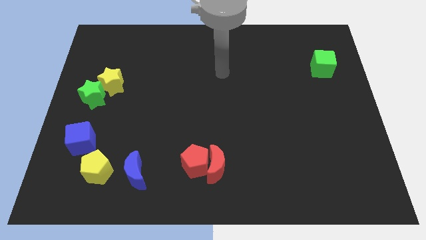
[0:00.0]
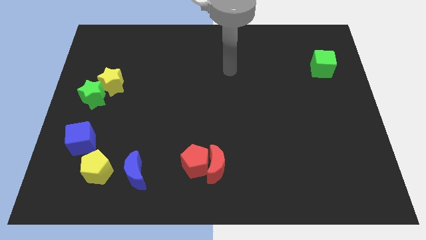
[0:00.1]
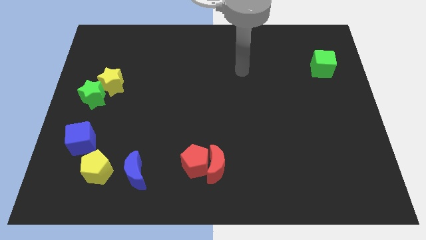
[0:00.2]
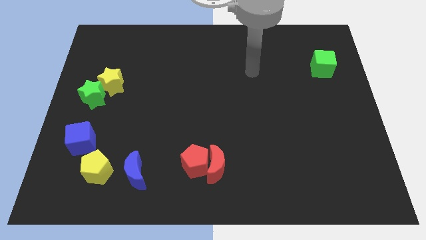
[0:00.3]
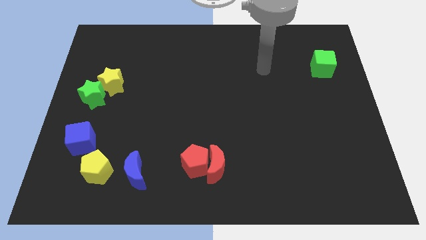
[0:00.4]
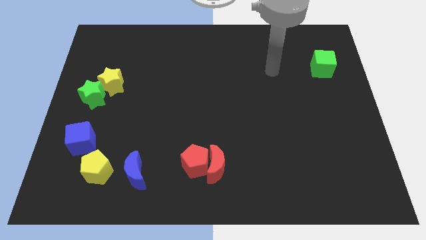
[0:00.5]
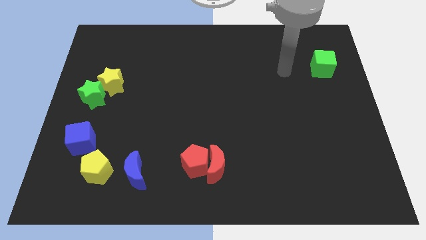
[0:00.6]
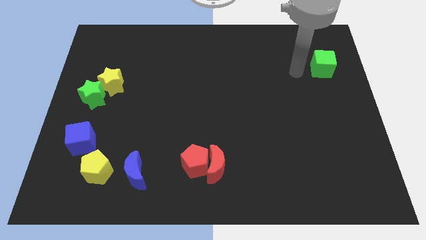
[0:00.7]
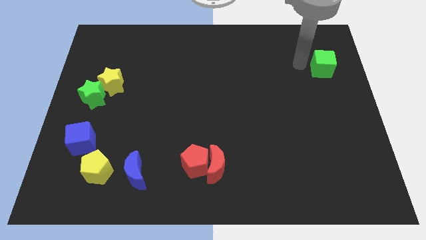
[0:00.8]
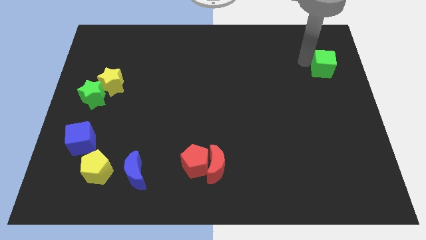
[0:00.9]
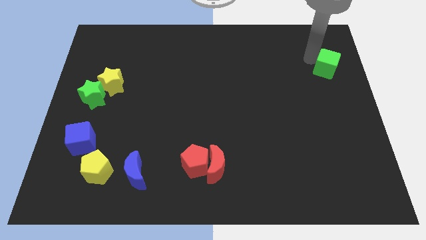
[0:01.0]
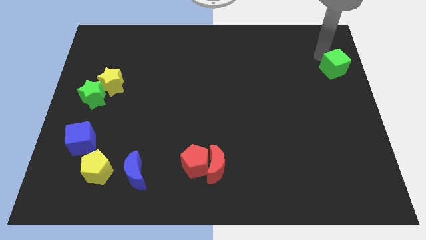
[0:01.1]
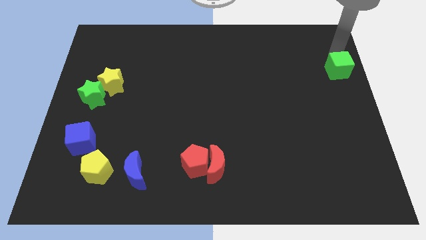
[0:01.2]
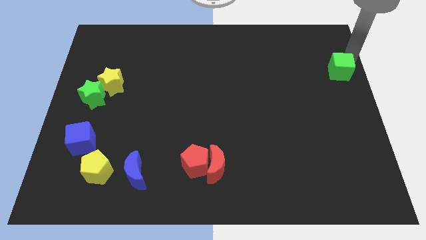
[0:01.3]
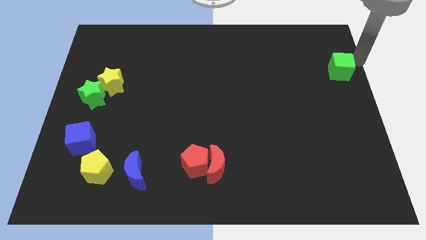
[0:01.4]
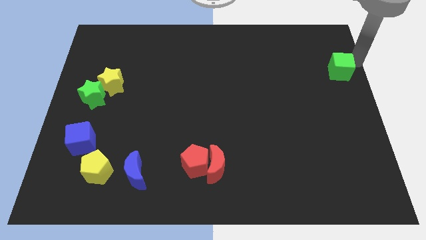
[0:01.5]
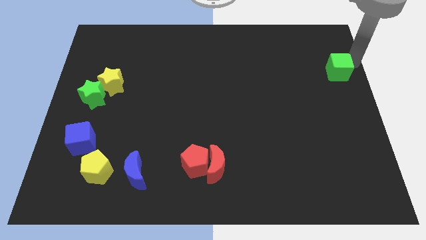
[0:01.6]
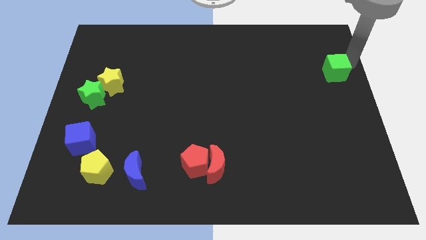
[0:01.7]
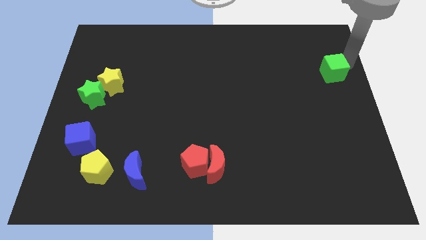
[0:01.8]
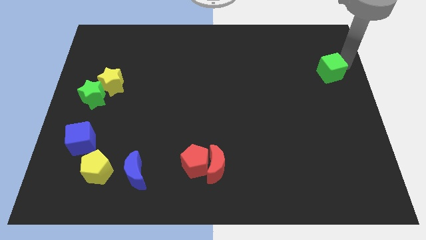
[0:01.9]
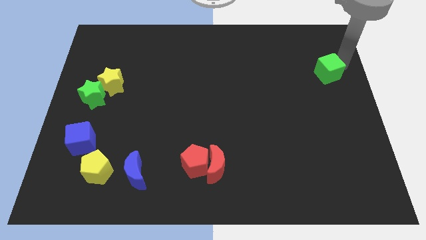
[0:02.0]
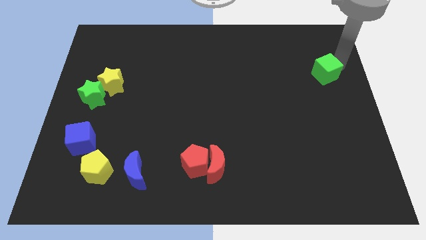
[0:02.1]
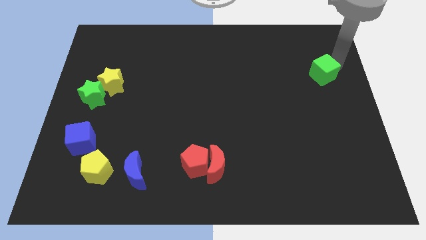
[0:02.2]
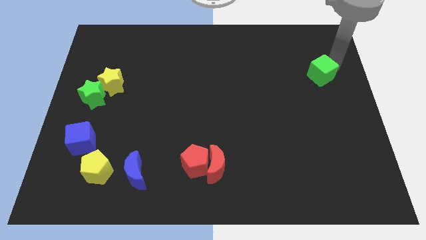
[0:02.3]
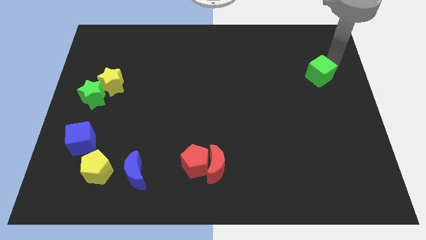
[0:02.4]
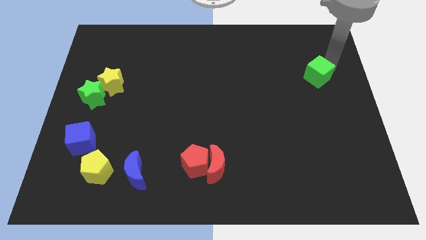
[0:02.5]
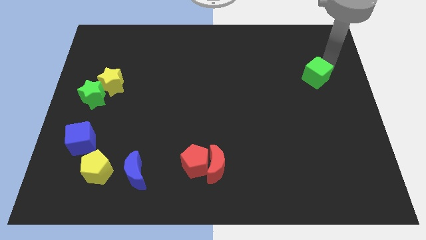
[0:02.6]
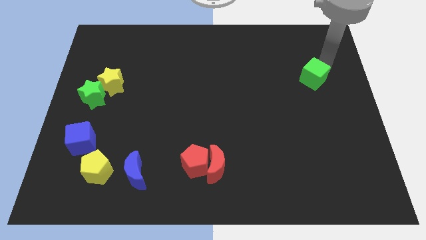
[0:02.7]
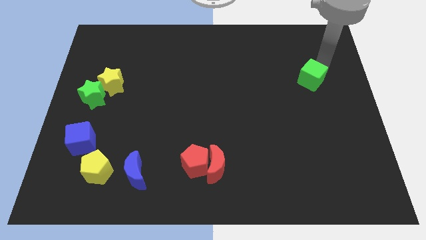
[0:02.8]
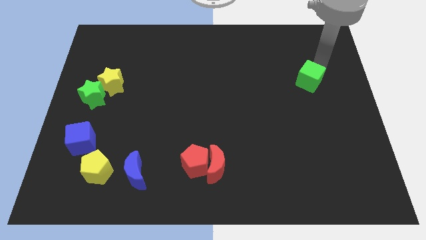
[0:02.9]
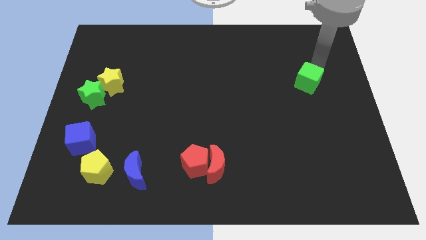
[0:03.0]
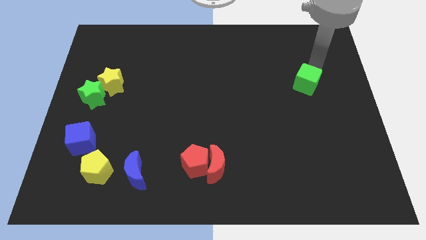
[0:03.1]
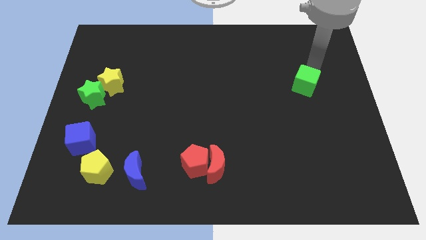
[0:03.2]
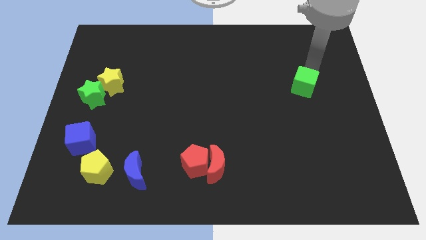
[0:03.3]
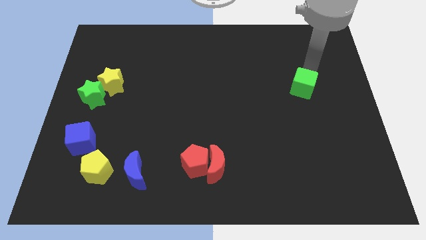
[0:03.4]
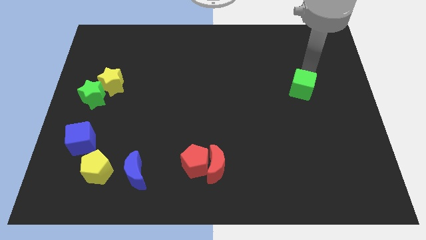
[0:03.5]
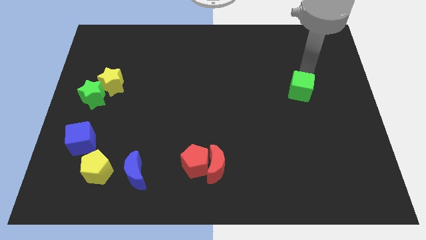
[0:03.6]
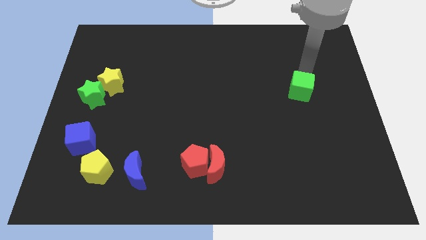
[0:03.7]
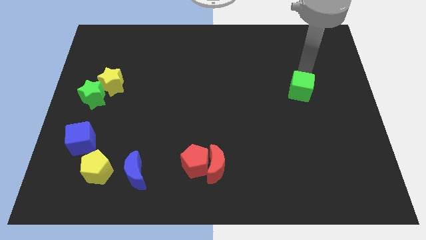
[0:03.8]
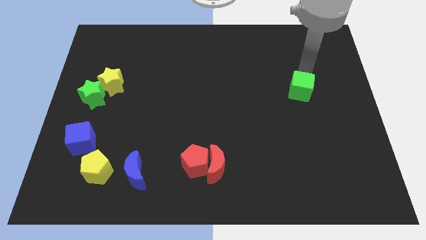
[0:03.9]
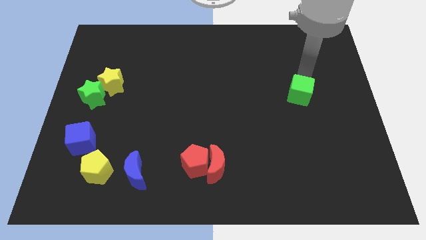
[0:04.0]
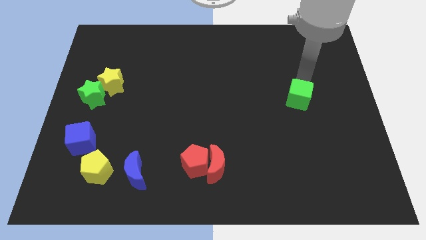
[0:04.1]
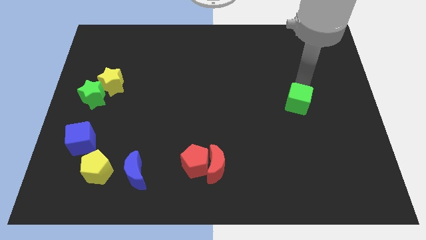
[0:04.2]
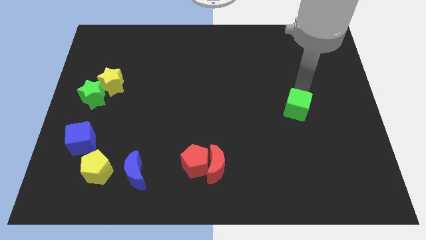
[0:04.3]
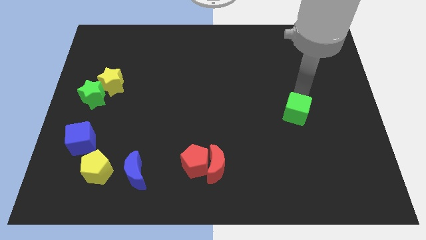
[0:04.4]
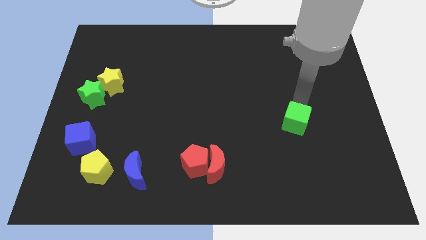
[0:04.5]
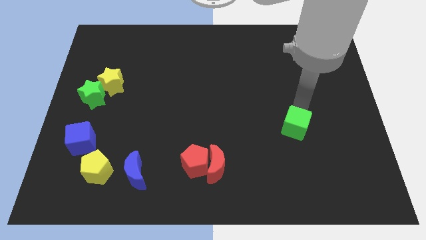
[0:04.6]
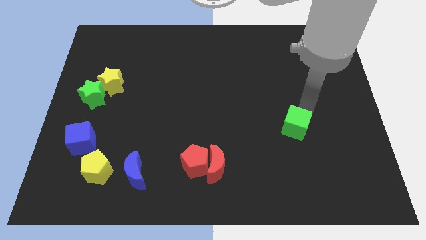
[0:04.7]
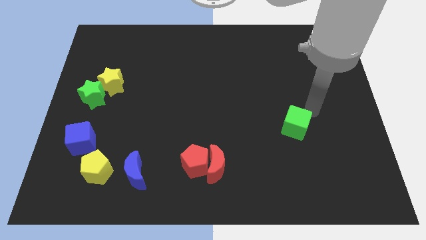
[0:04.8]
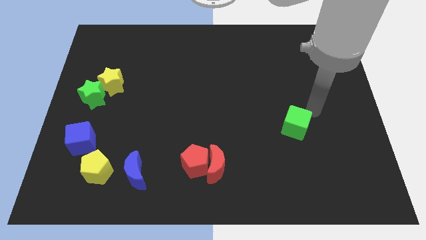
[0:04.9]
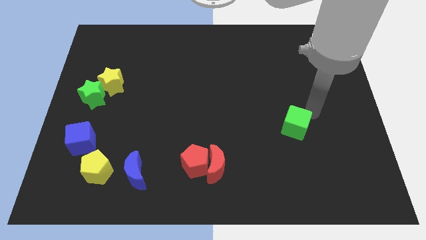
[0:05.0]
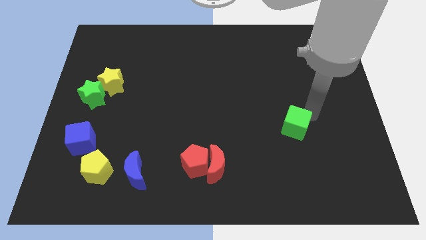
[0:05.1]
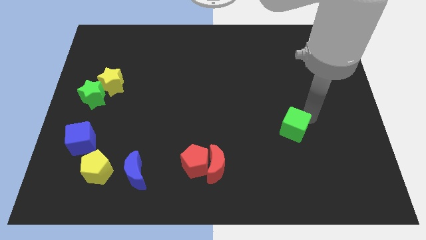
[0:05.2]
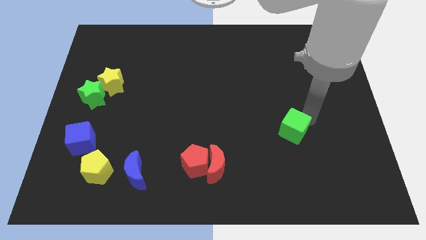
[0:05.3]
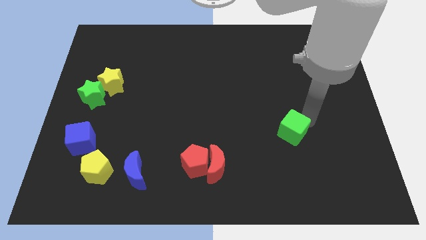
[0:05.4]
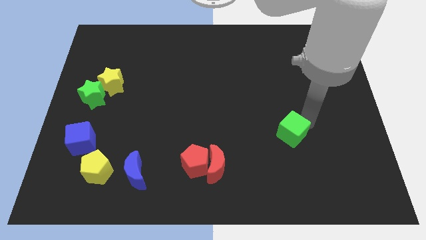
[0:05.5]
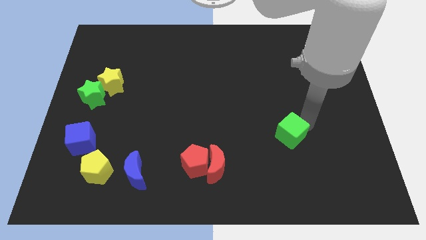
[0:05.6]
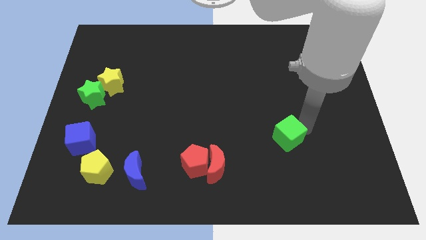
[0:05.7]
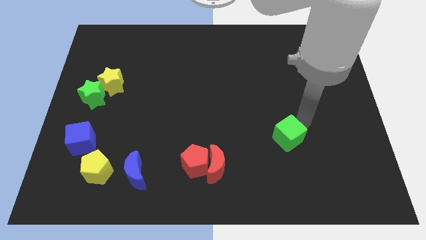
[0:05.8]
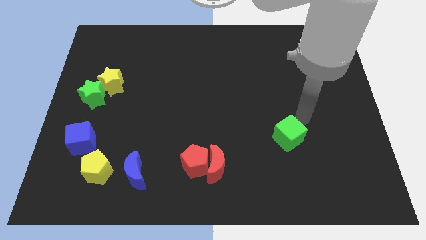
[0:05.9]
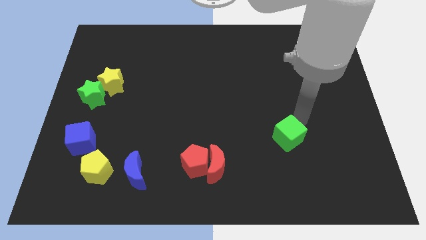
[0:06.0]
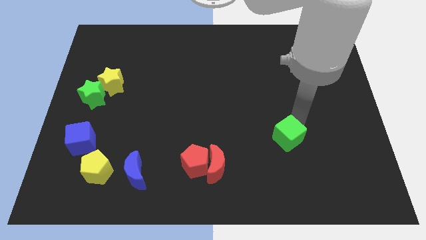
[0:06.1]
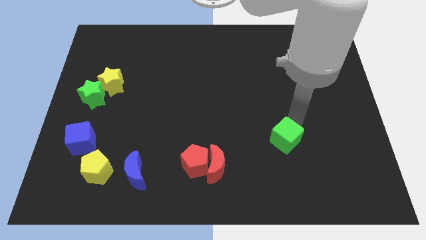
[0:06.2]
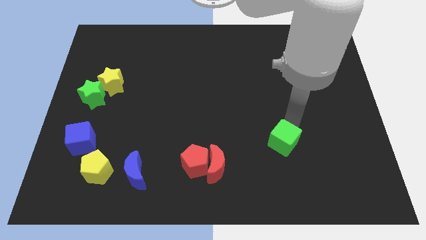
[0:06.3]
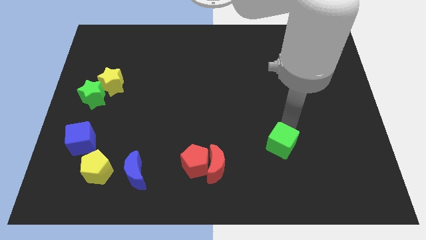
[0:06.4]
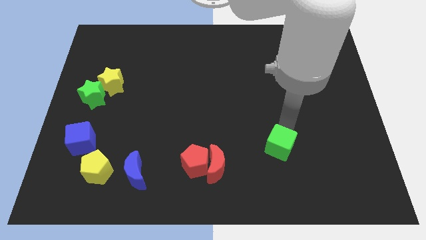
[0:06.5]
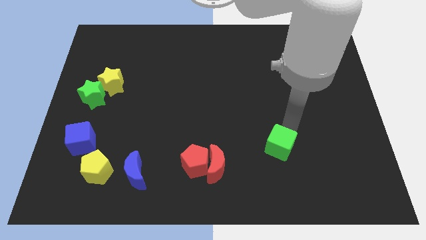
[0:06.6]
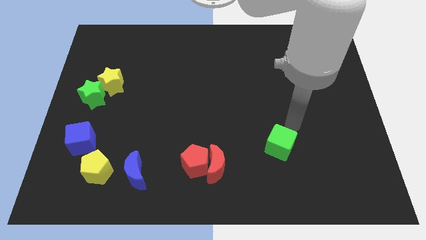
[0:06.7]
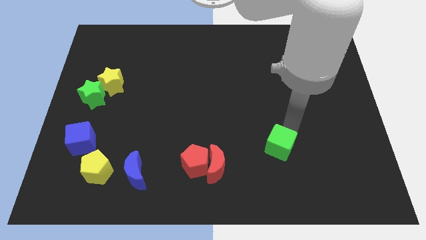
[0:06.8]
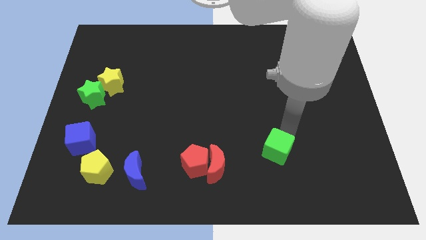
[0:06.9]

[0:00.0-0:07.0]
slide the green cube right of the red moon
